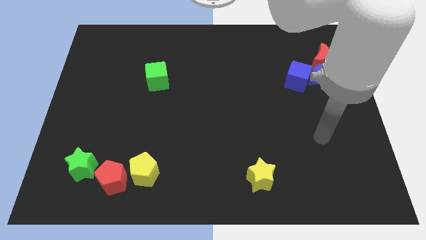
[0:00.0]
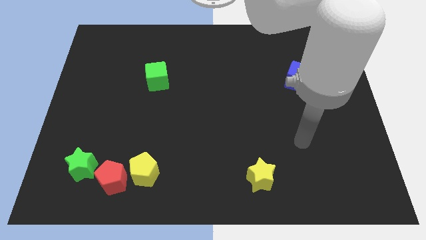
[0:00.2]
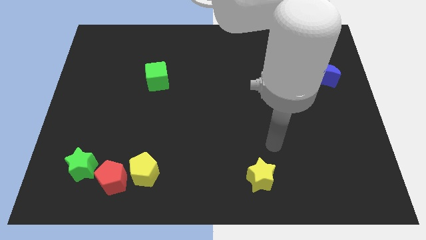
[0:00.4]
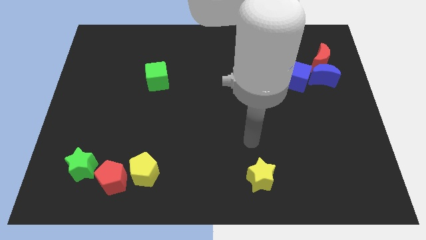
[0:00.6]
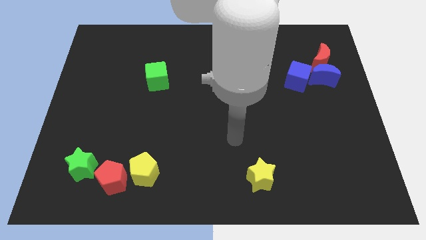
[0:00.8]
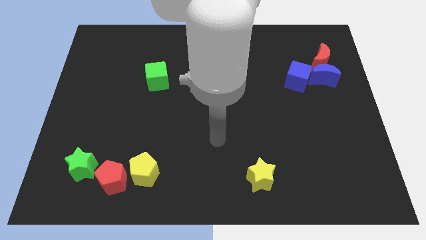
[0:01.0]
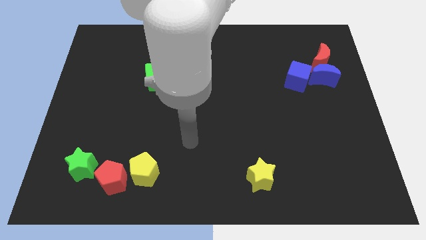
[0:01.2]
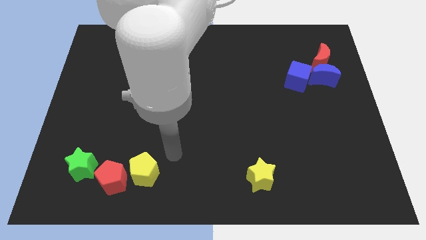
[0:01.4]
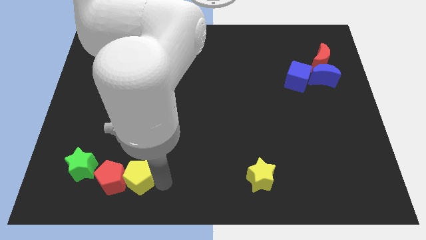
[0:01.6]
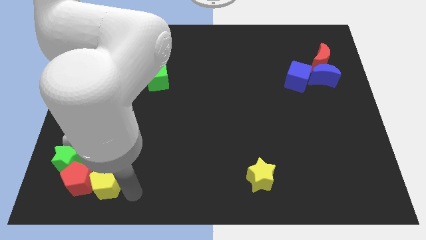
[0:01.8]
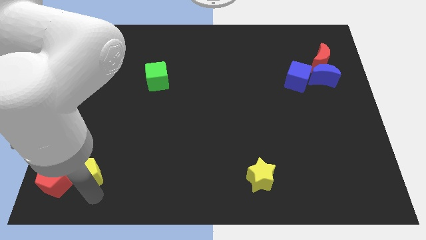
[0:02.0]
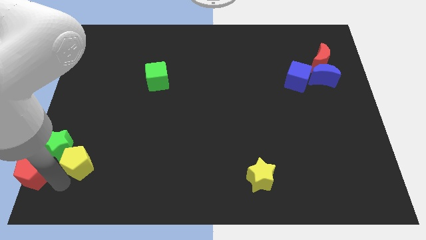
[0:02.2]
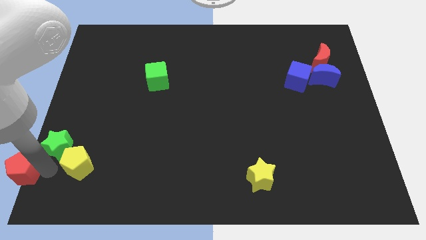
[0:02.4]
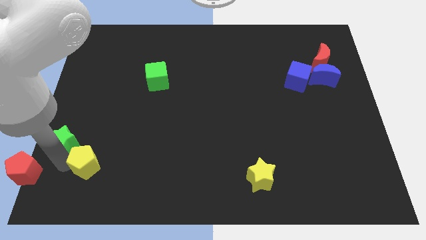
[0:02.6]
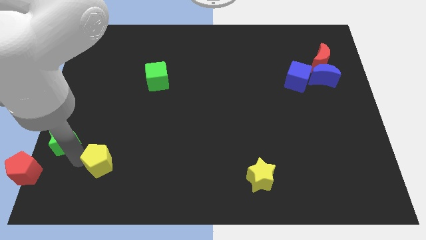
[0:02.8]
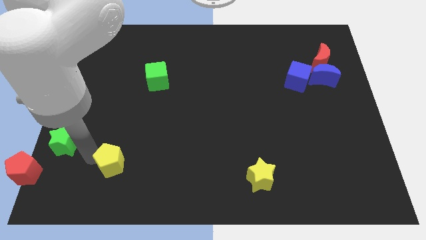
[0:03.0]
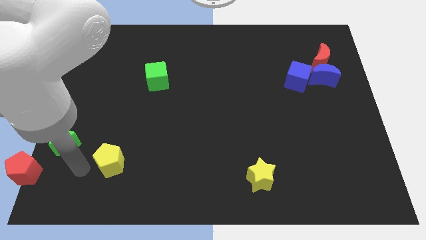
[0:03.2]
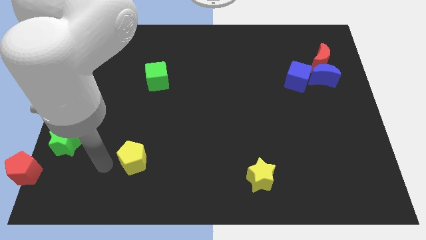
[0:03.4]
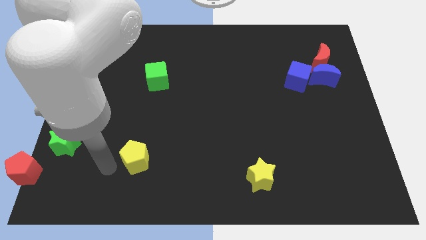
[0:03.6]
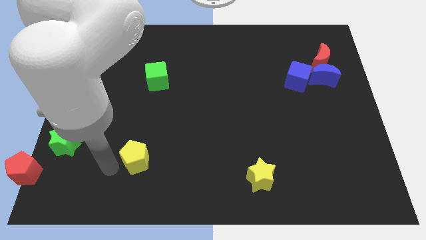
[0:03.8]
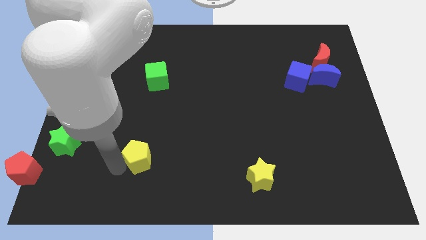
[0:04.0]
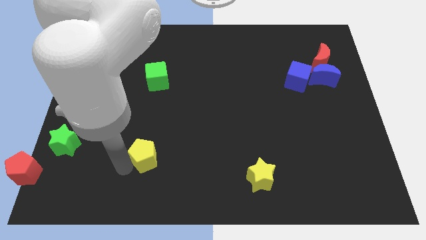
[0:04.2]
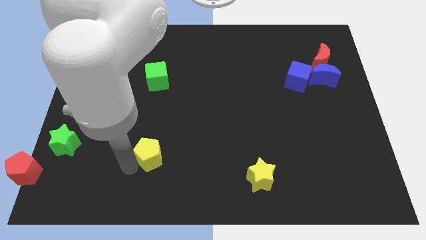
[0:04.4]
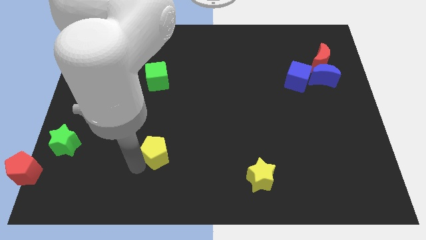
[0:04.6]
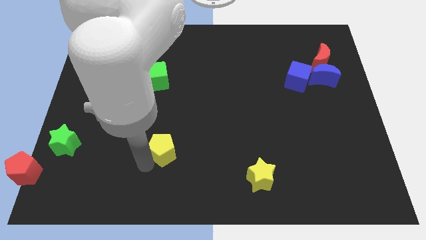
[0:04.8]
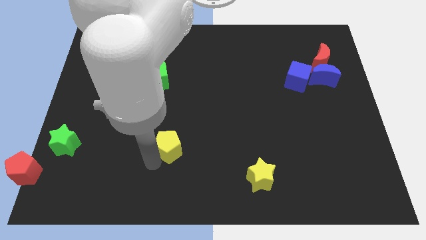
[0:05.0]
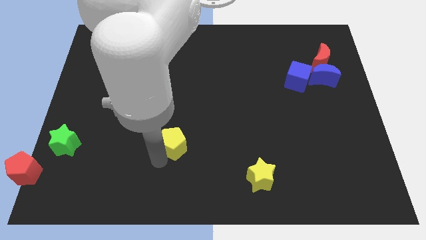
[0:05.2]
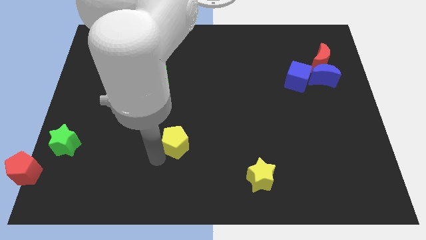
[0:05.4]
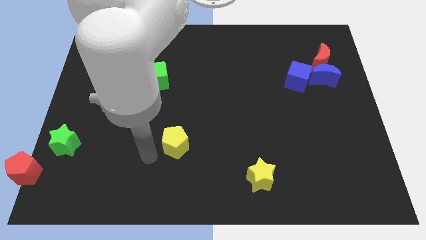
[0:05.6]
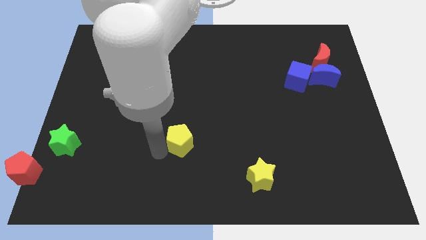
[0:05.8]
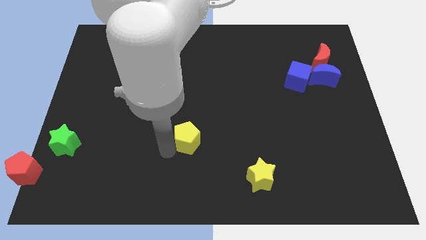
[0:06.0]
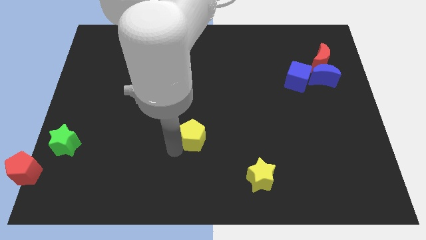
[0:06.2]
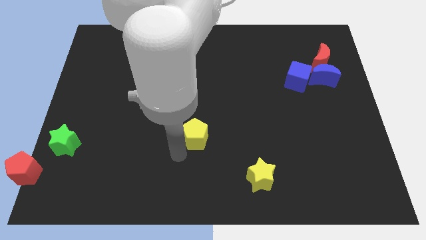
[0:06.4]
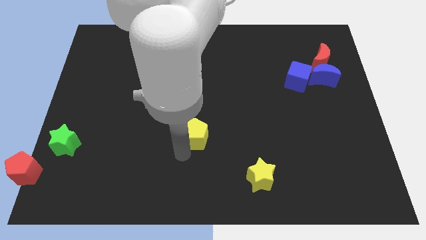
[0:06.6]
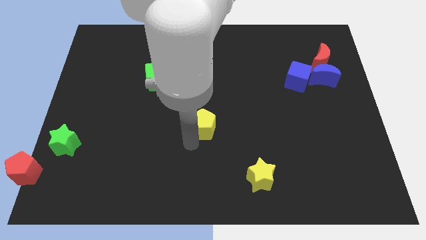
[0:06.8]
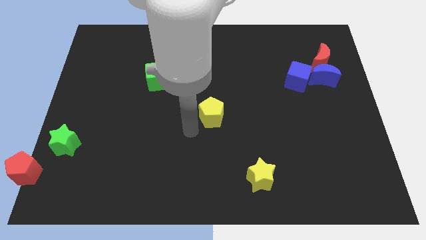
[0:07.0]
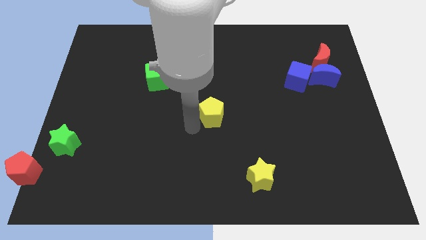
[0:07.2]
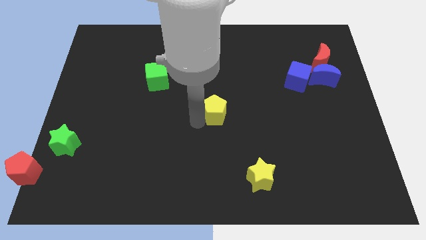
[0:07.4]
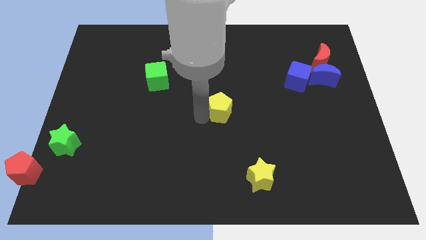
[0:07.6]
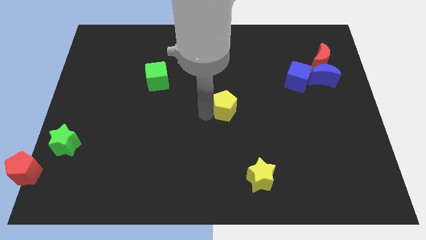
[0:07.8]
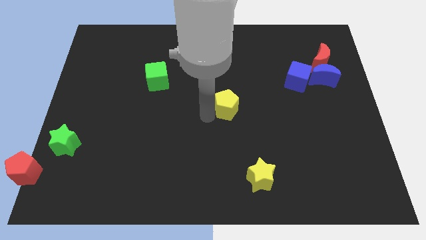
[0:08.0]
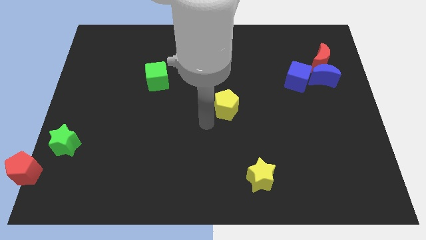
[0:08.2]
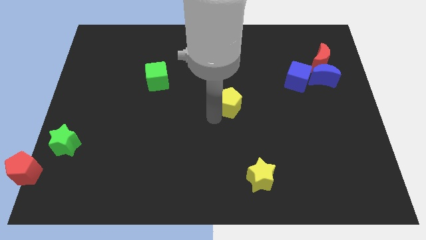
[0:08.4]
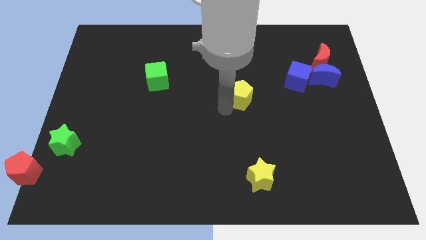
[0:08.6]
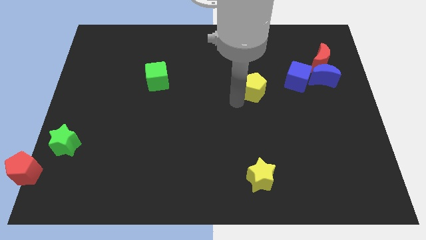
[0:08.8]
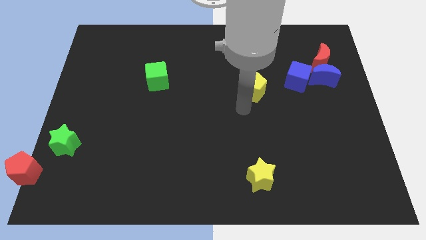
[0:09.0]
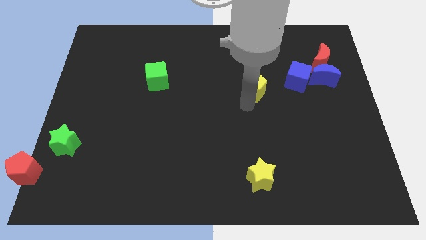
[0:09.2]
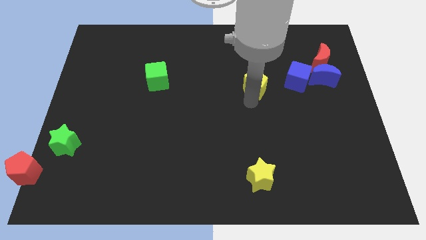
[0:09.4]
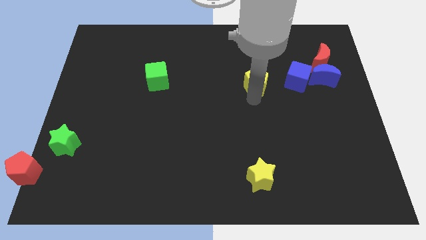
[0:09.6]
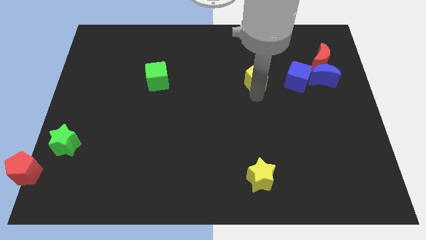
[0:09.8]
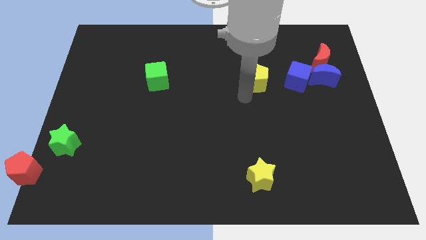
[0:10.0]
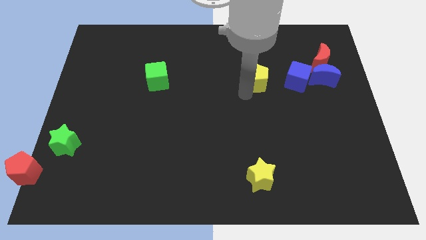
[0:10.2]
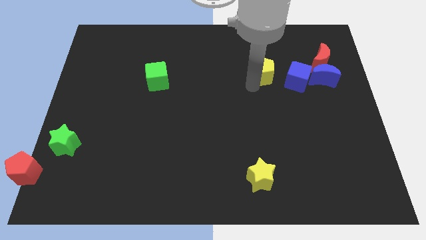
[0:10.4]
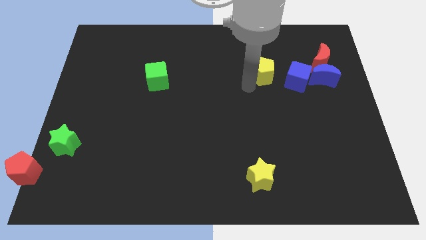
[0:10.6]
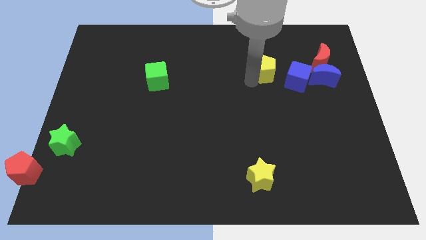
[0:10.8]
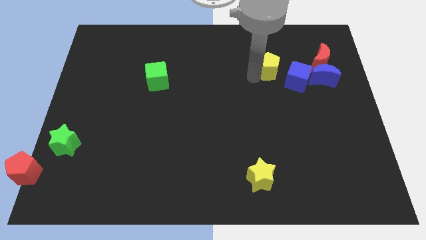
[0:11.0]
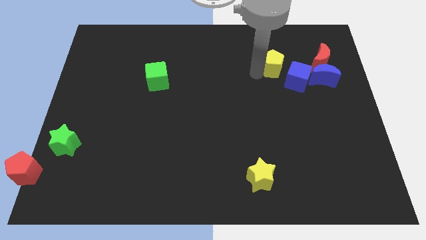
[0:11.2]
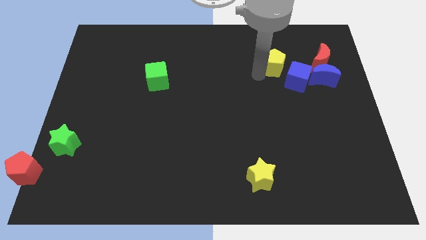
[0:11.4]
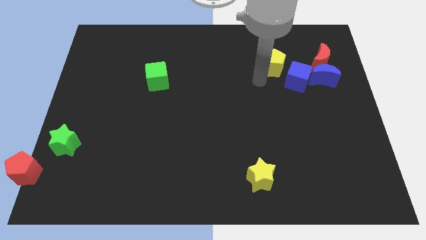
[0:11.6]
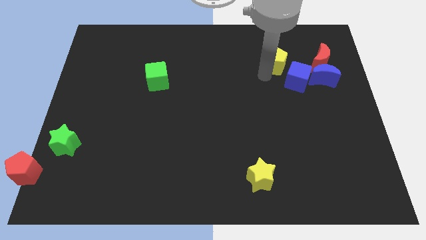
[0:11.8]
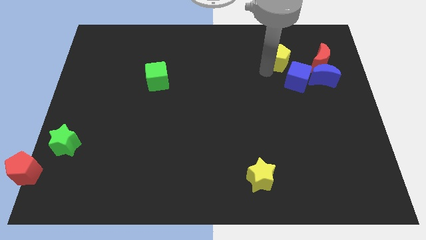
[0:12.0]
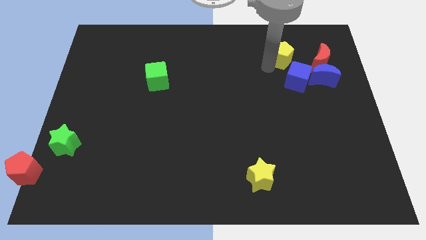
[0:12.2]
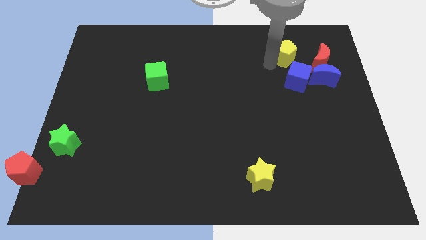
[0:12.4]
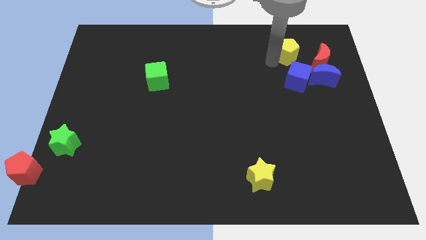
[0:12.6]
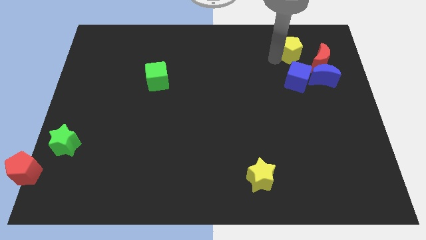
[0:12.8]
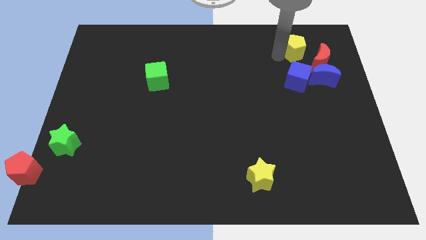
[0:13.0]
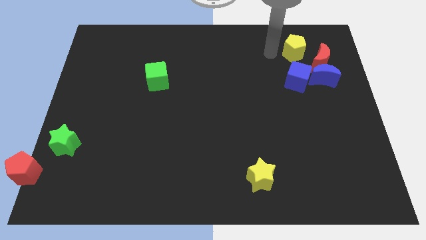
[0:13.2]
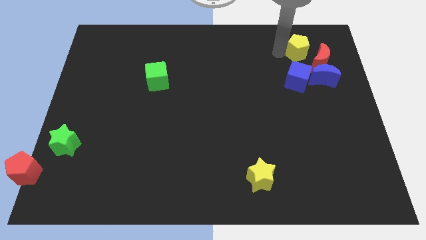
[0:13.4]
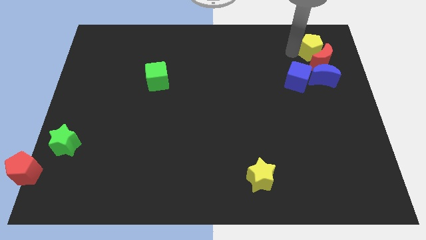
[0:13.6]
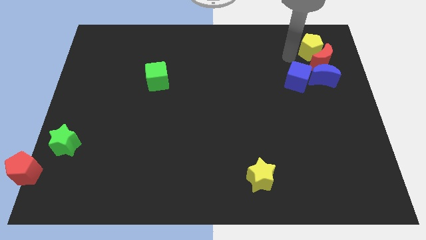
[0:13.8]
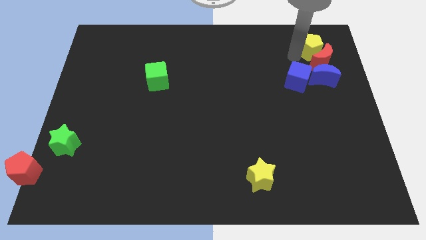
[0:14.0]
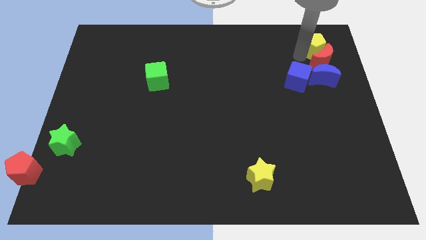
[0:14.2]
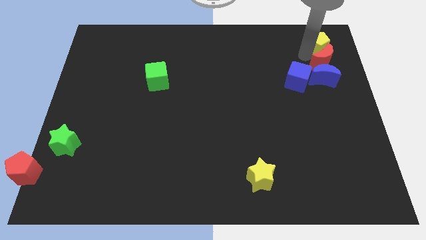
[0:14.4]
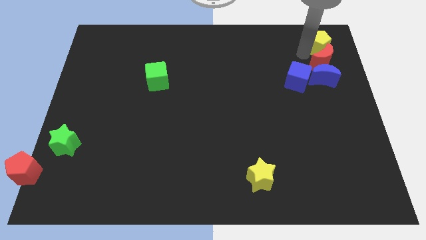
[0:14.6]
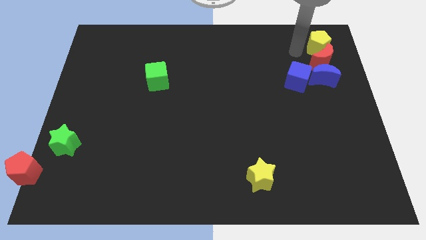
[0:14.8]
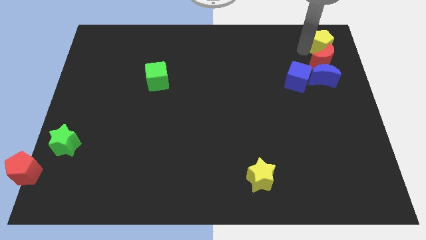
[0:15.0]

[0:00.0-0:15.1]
push the yellow pentagon to the top right
